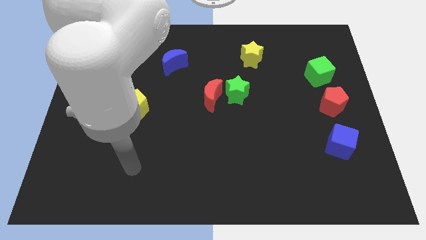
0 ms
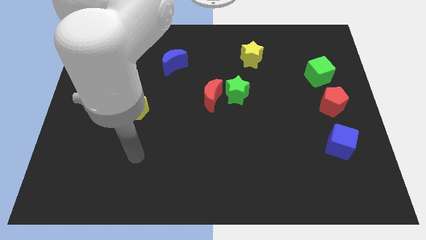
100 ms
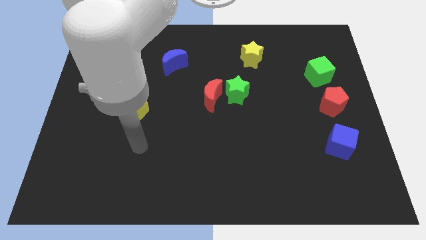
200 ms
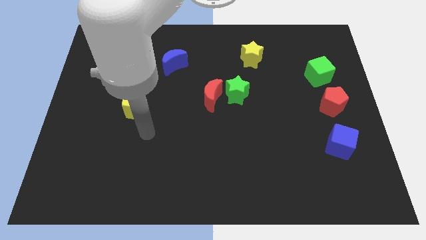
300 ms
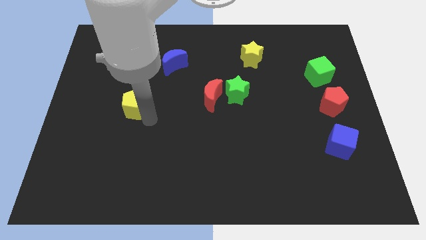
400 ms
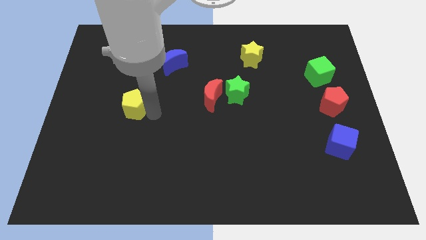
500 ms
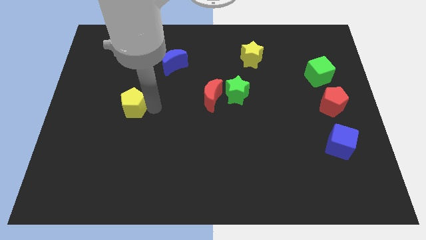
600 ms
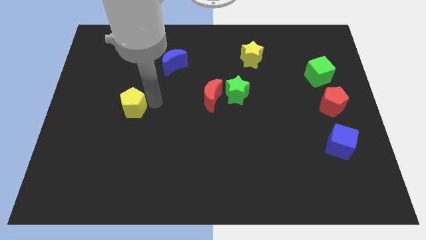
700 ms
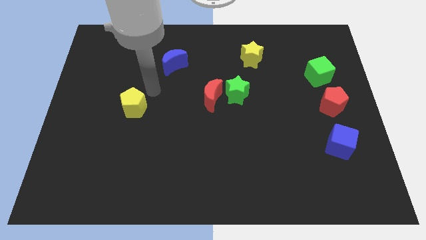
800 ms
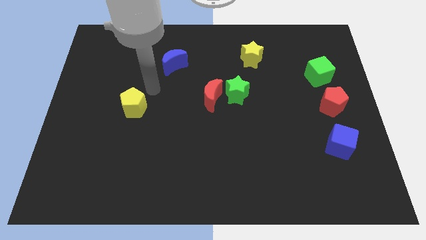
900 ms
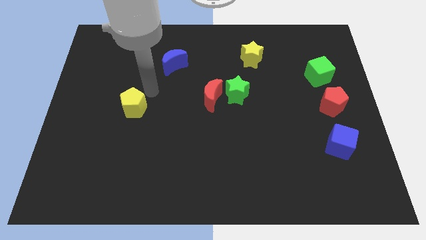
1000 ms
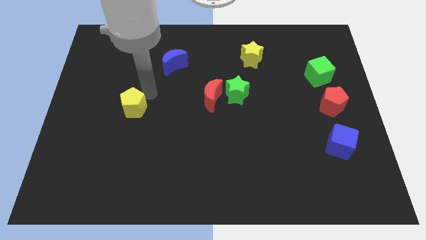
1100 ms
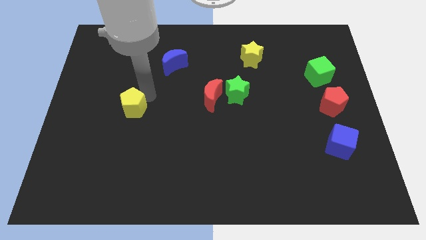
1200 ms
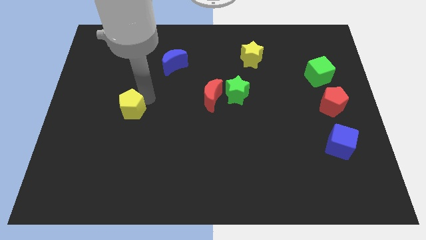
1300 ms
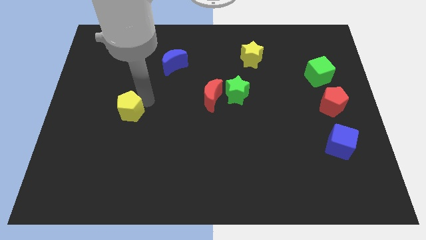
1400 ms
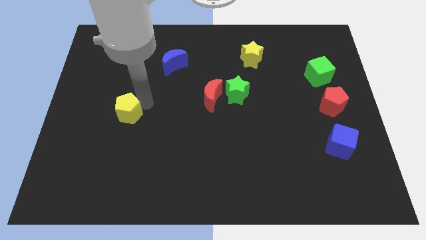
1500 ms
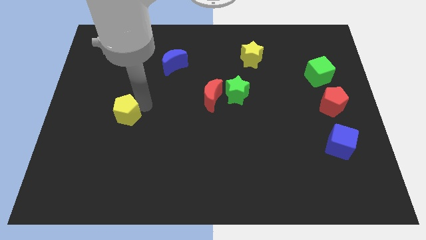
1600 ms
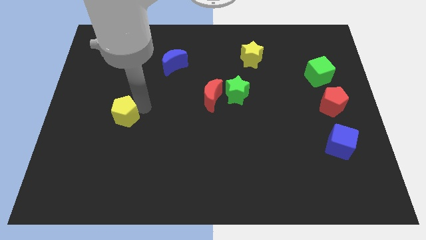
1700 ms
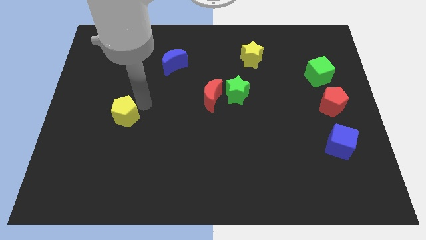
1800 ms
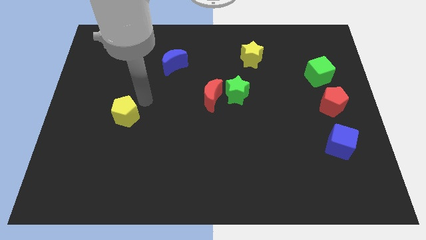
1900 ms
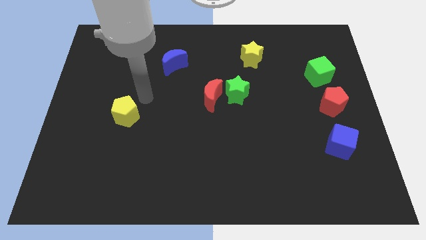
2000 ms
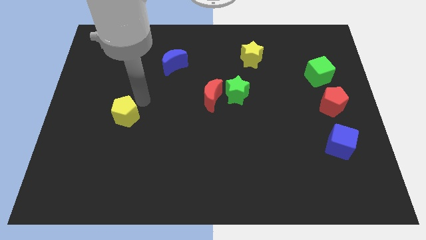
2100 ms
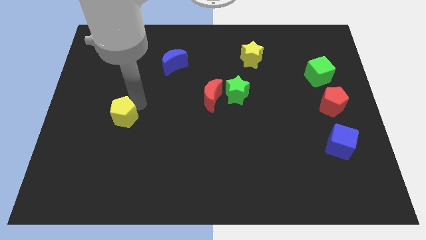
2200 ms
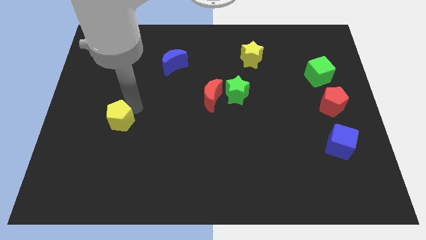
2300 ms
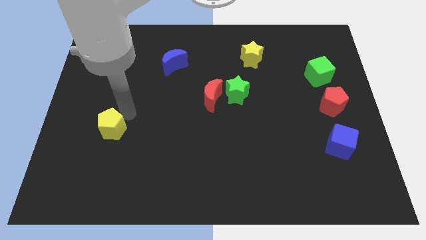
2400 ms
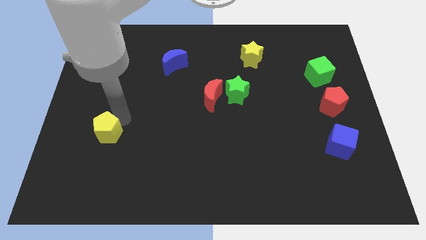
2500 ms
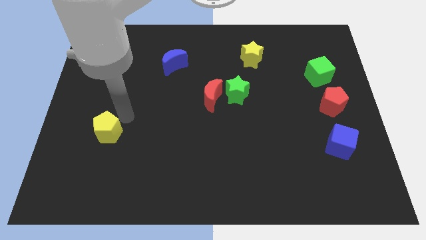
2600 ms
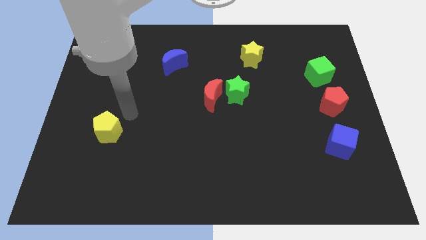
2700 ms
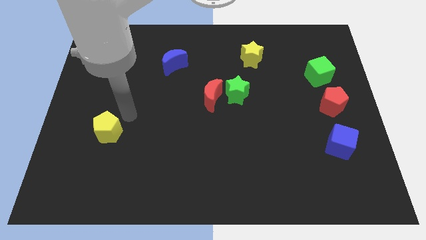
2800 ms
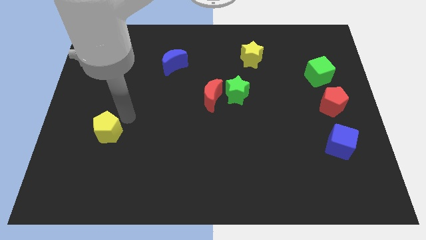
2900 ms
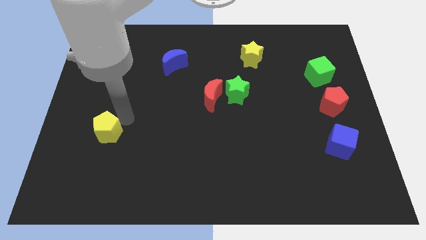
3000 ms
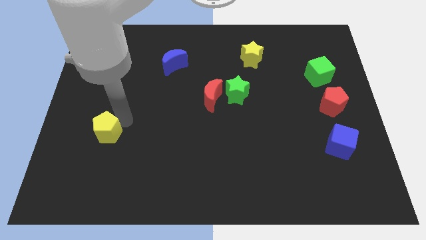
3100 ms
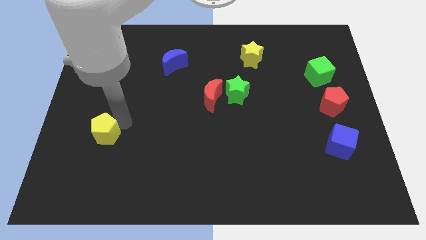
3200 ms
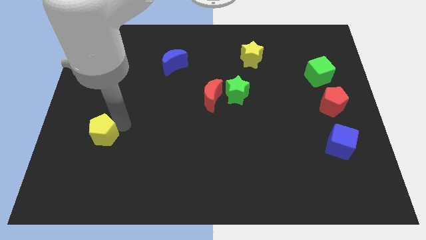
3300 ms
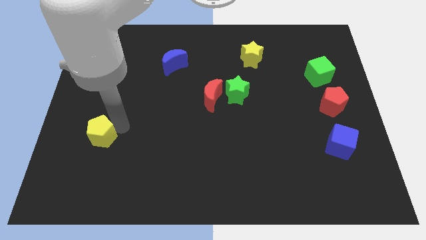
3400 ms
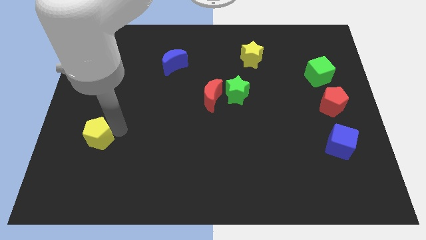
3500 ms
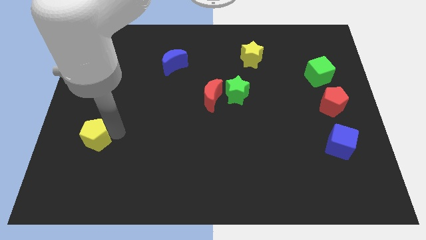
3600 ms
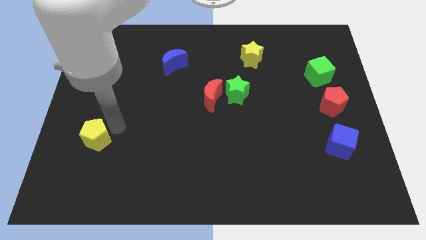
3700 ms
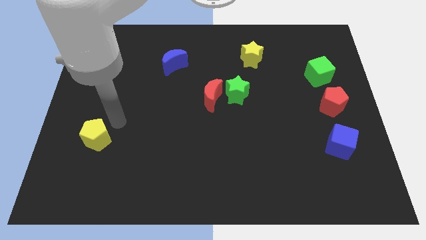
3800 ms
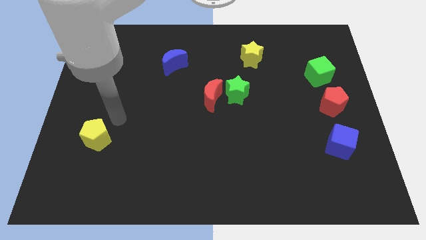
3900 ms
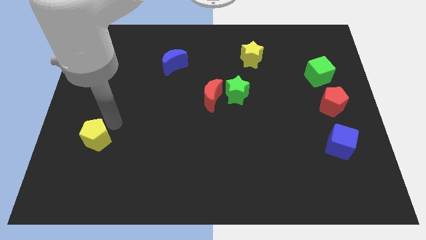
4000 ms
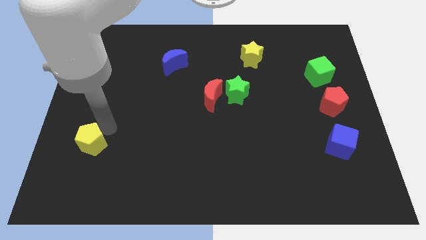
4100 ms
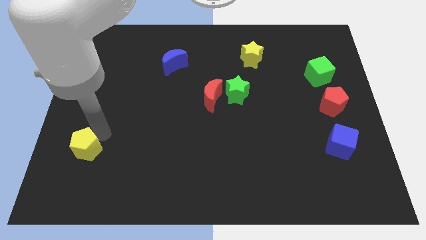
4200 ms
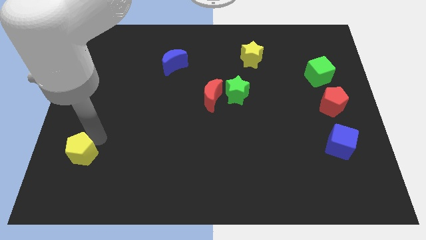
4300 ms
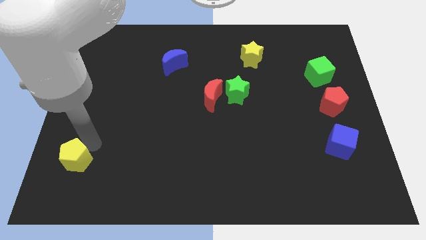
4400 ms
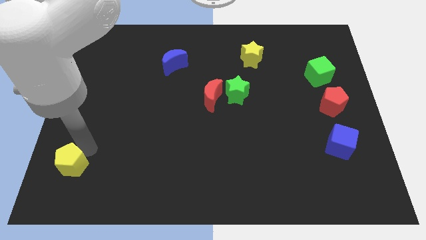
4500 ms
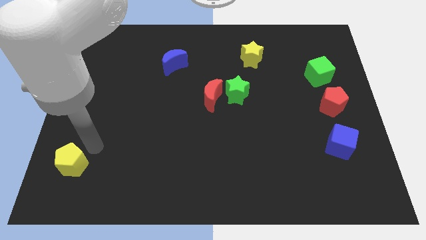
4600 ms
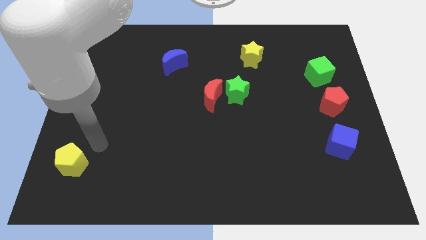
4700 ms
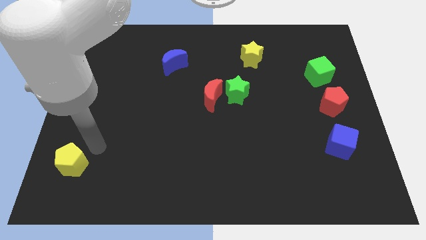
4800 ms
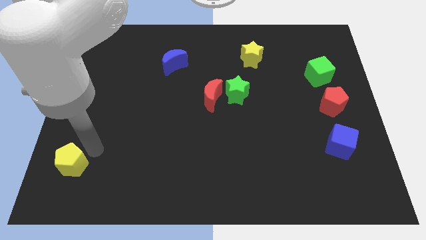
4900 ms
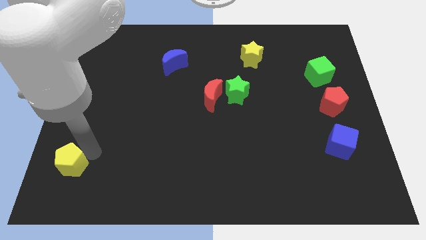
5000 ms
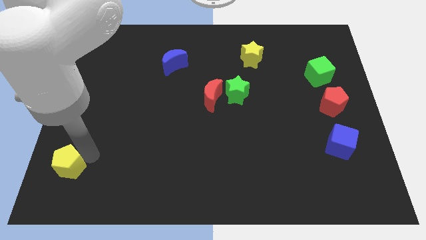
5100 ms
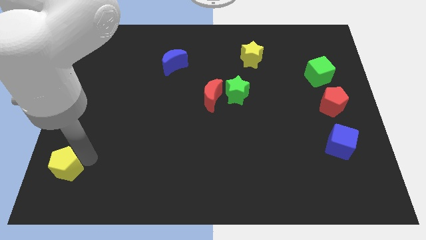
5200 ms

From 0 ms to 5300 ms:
move the yellow pentagon to the bottom left

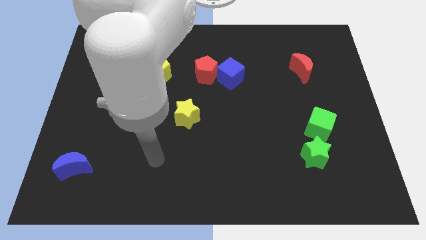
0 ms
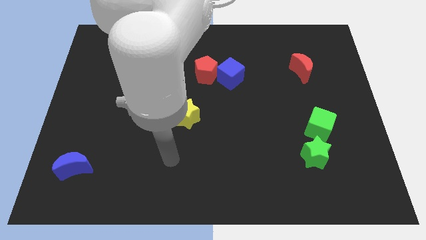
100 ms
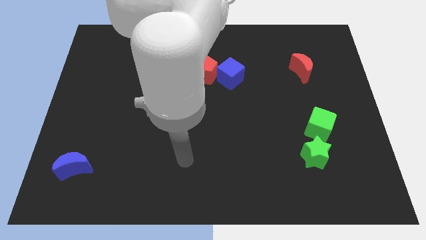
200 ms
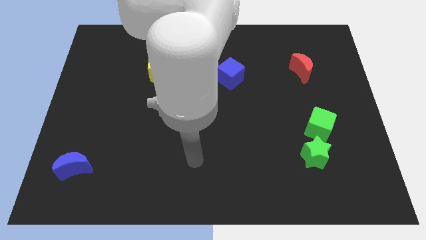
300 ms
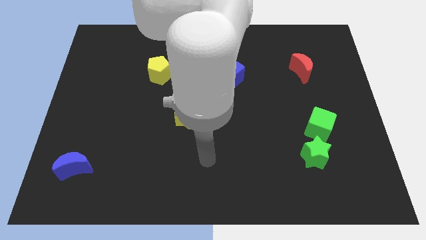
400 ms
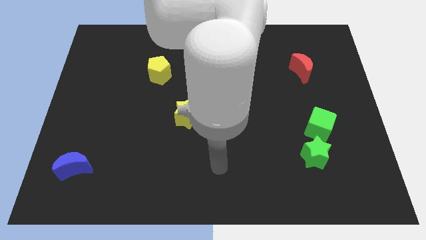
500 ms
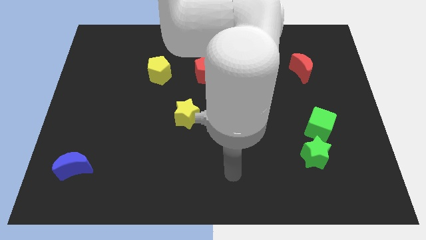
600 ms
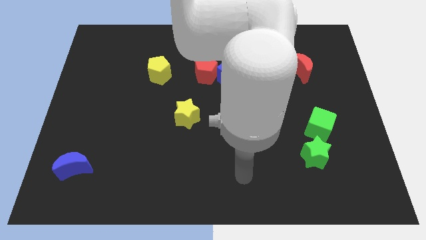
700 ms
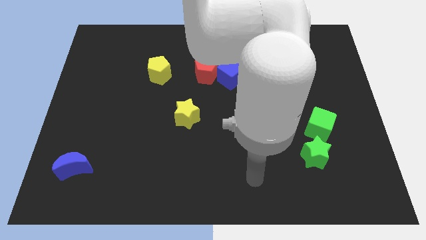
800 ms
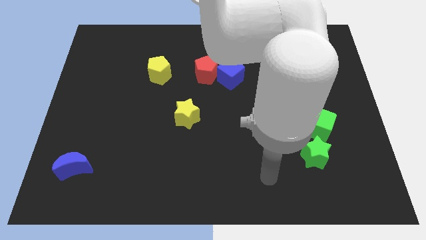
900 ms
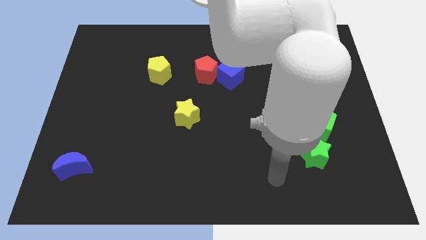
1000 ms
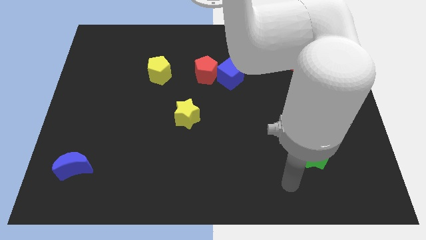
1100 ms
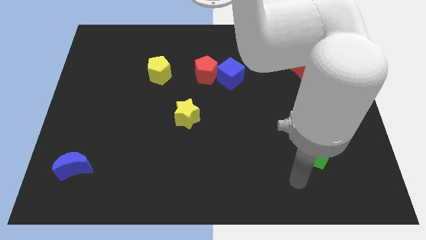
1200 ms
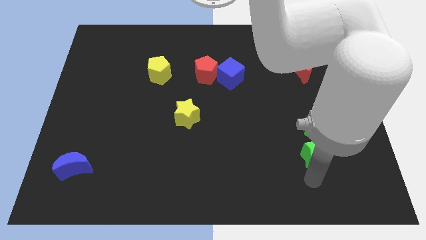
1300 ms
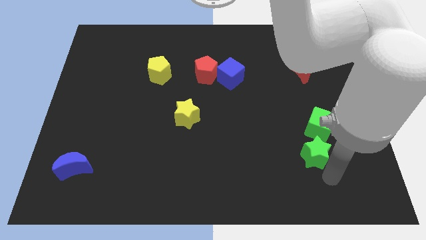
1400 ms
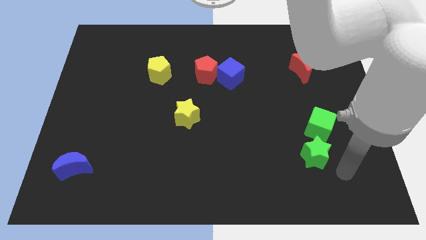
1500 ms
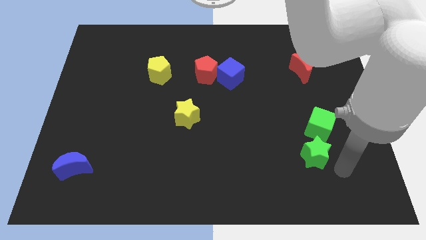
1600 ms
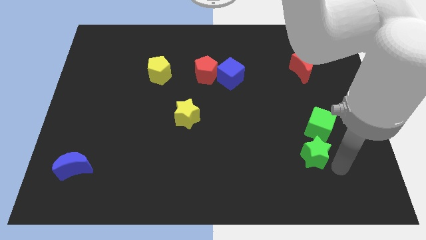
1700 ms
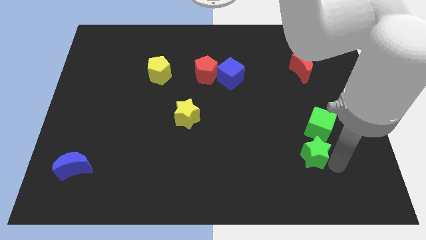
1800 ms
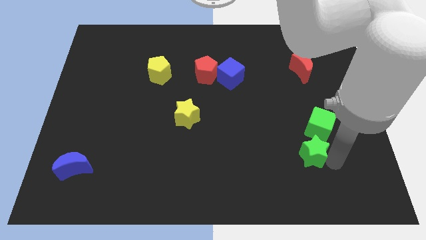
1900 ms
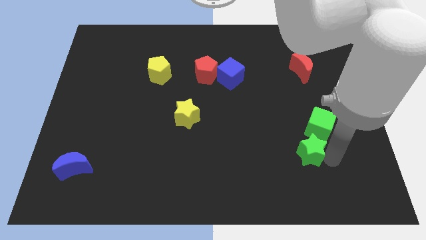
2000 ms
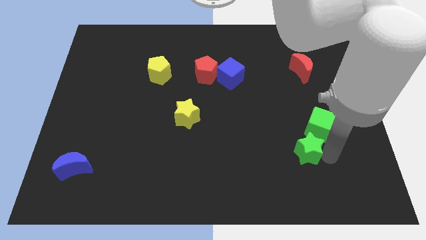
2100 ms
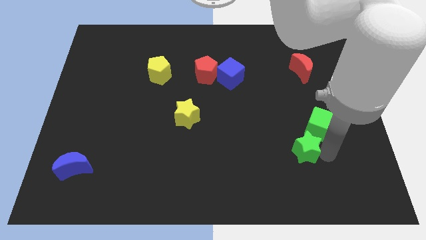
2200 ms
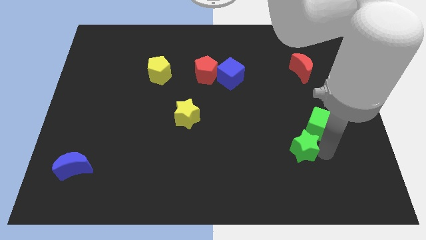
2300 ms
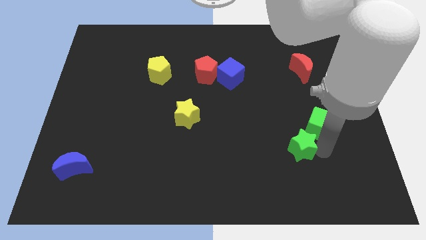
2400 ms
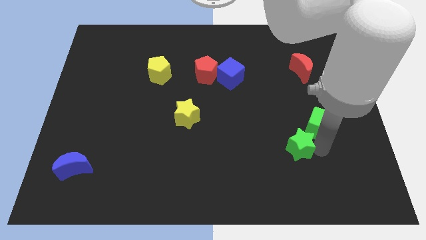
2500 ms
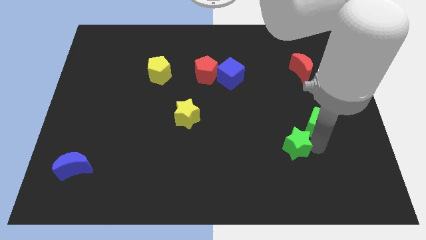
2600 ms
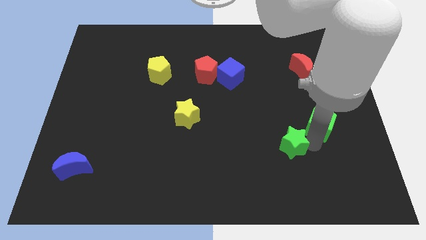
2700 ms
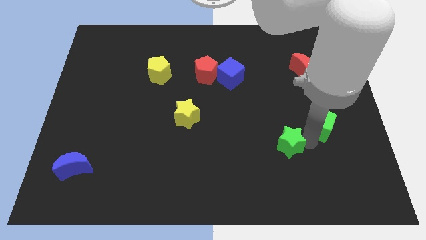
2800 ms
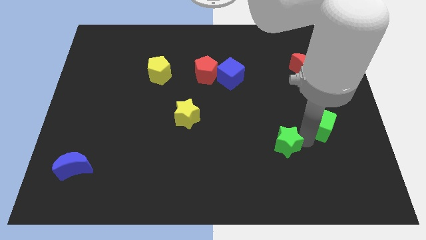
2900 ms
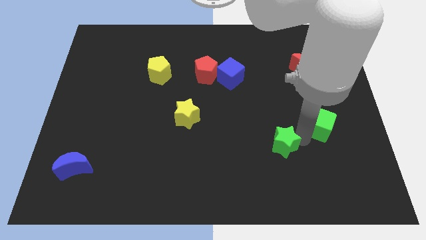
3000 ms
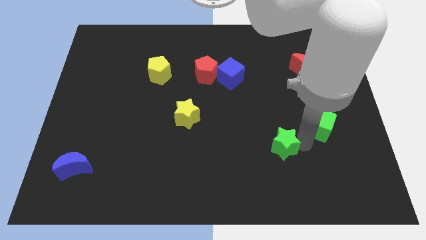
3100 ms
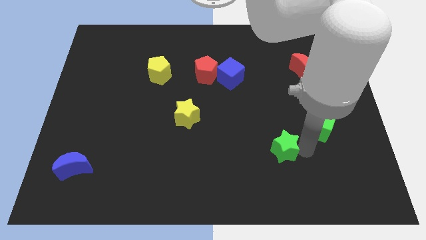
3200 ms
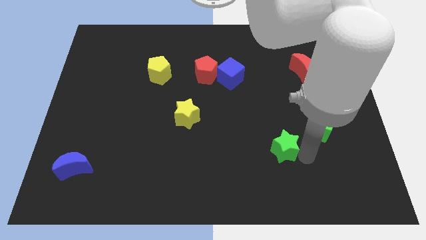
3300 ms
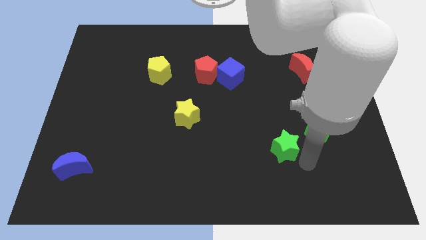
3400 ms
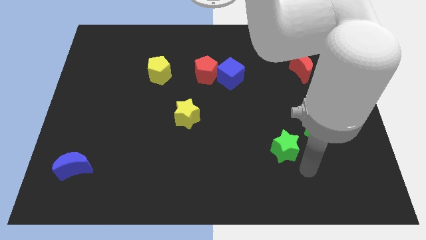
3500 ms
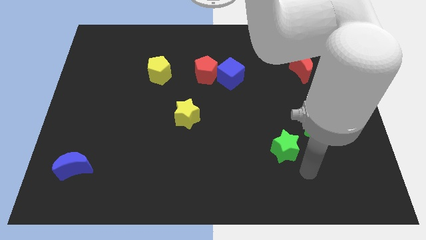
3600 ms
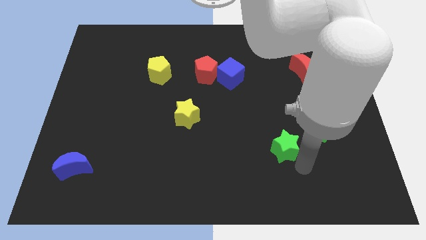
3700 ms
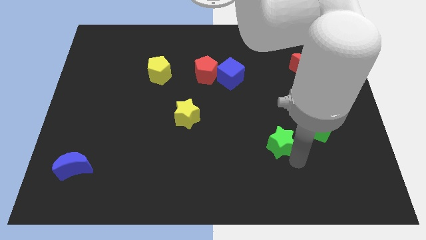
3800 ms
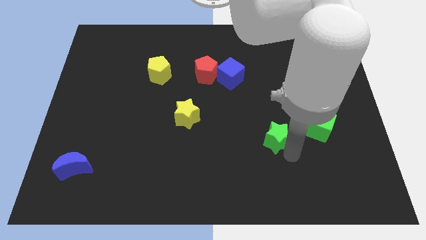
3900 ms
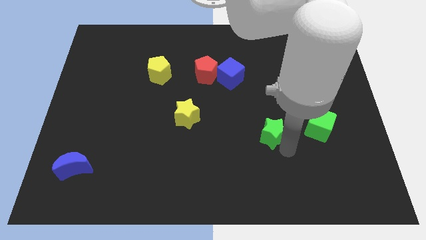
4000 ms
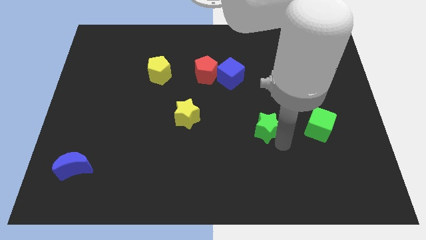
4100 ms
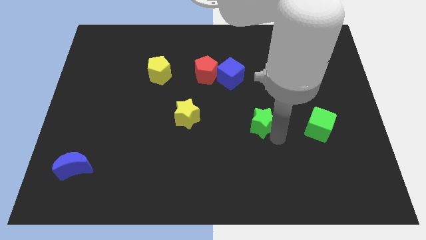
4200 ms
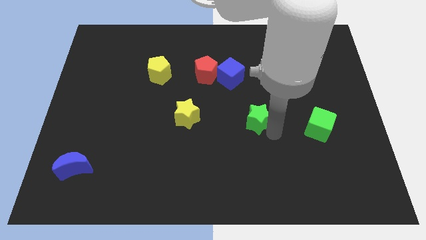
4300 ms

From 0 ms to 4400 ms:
slide the green star to the center of the board
